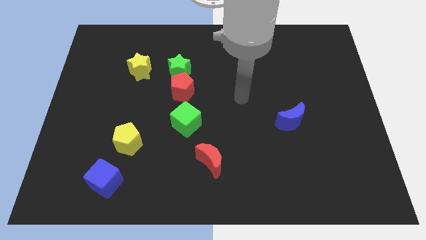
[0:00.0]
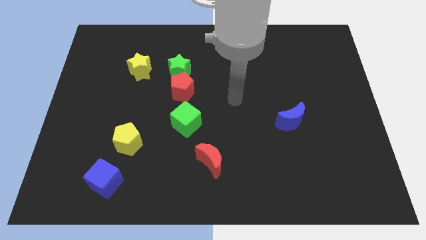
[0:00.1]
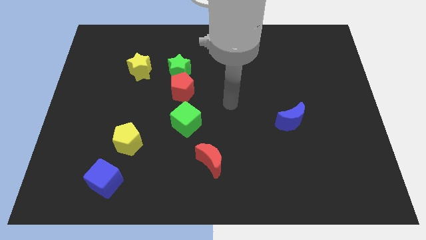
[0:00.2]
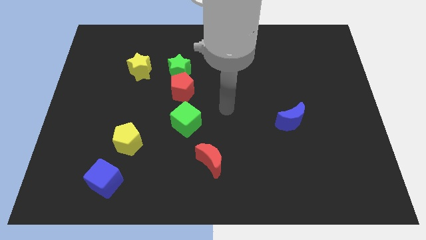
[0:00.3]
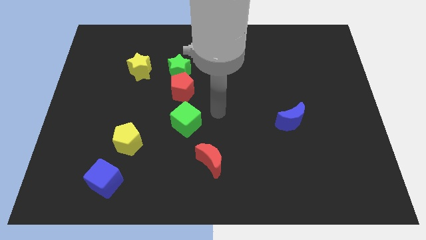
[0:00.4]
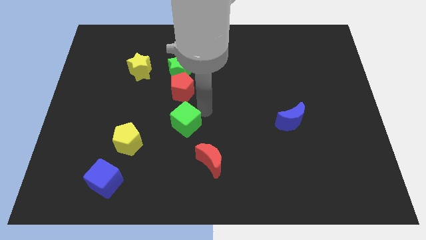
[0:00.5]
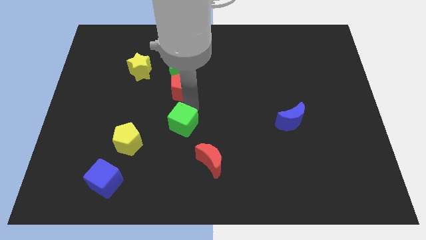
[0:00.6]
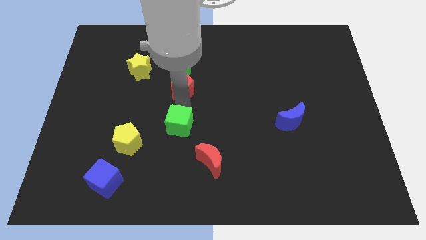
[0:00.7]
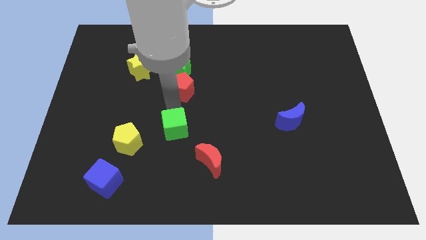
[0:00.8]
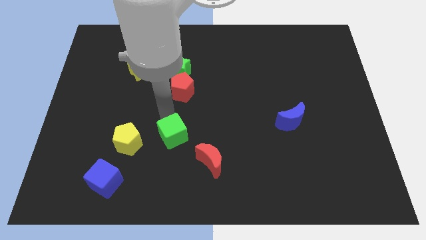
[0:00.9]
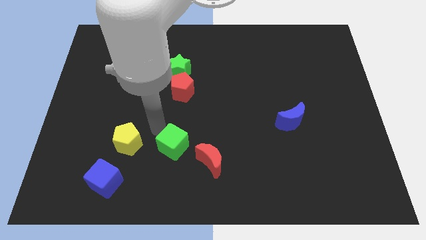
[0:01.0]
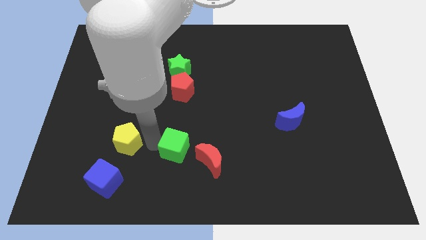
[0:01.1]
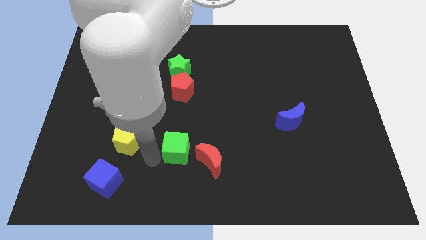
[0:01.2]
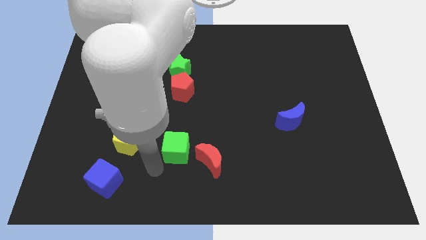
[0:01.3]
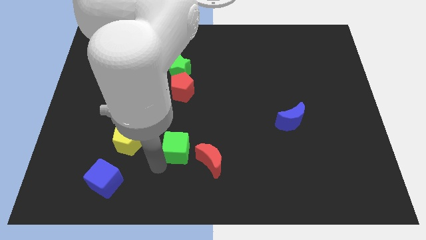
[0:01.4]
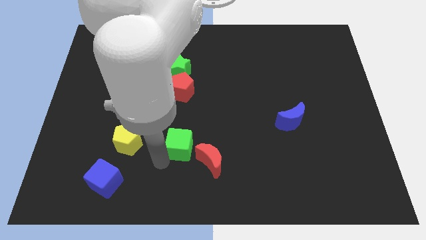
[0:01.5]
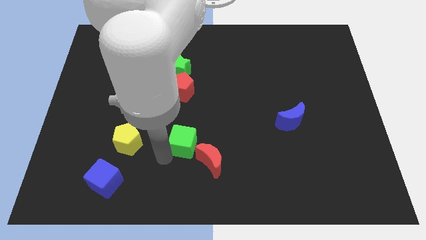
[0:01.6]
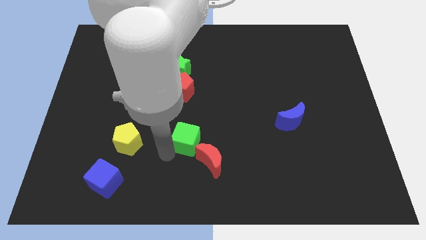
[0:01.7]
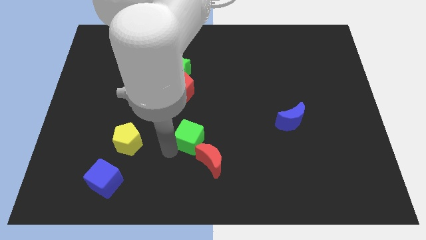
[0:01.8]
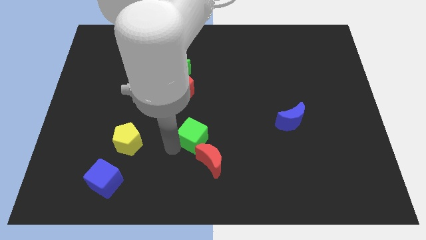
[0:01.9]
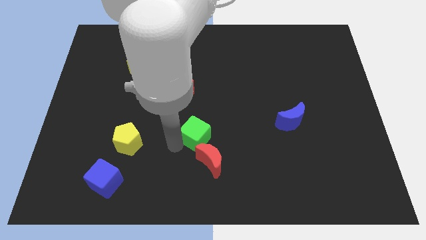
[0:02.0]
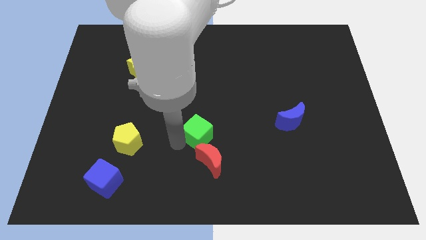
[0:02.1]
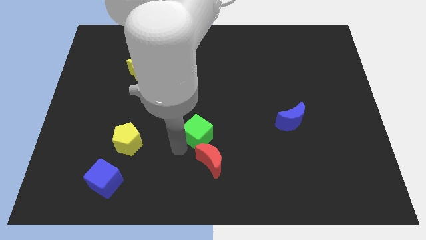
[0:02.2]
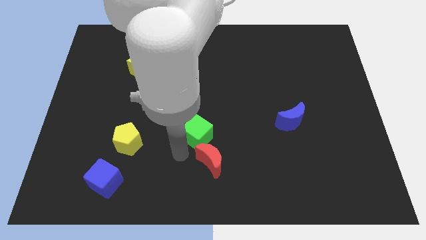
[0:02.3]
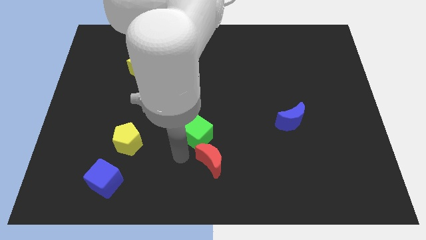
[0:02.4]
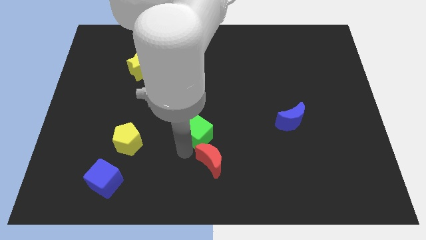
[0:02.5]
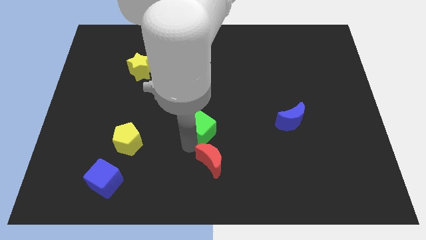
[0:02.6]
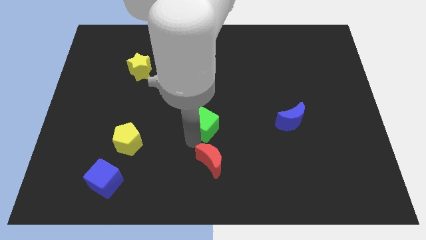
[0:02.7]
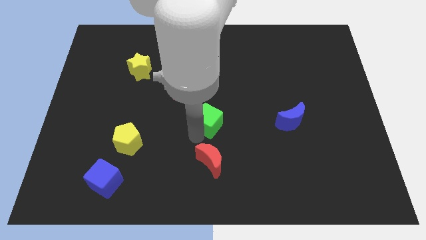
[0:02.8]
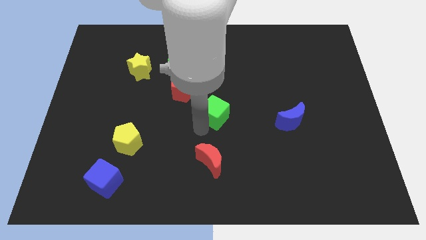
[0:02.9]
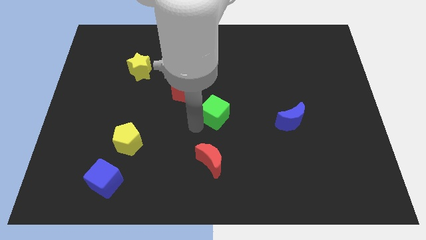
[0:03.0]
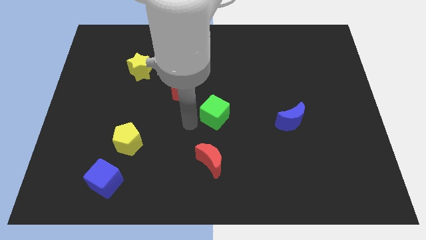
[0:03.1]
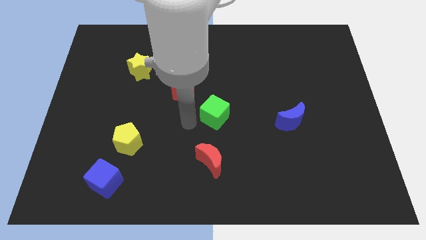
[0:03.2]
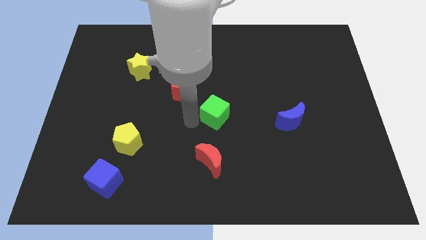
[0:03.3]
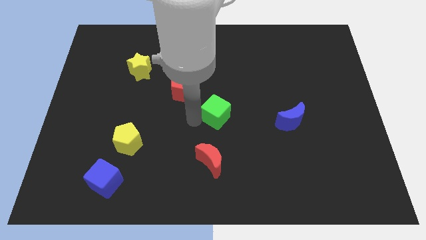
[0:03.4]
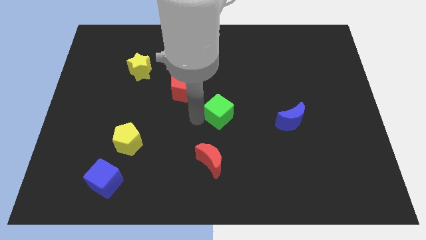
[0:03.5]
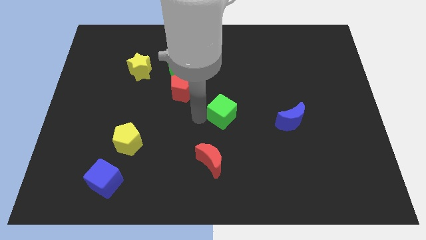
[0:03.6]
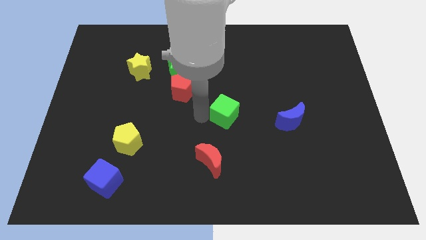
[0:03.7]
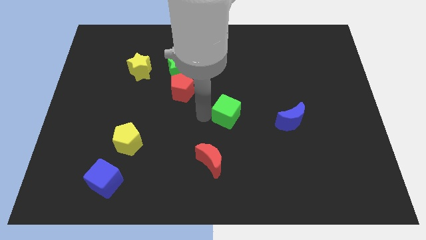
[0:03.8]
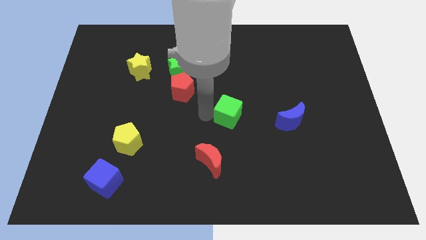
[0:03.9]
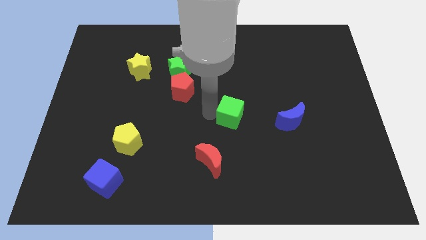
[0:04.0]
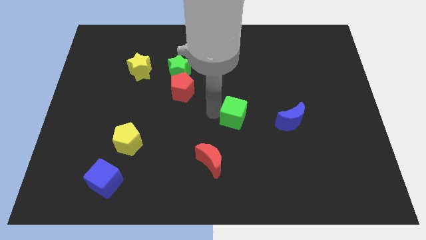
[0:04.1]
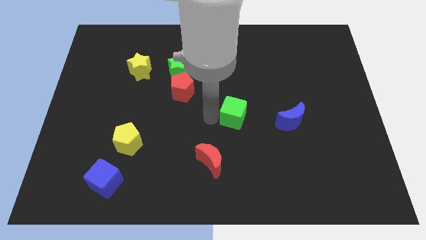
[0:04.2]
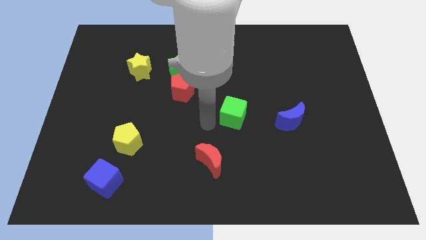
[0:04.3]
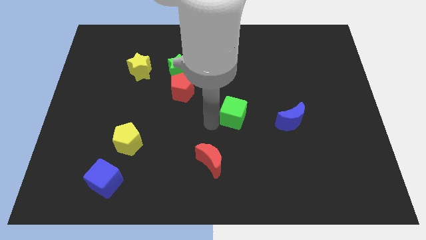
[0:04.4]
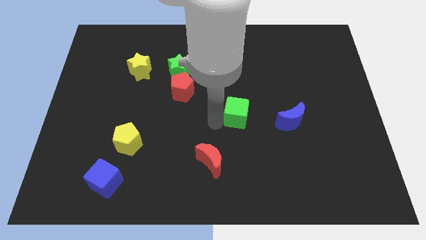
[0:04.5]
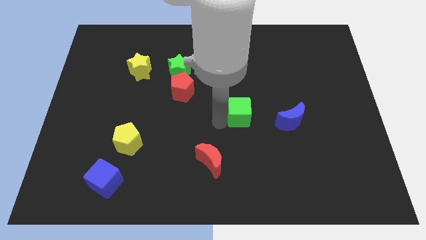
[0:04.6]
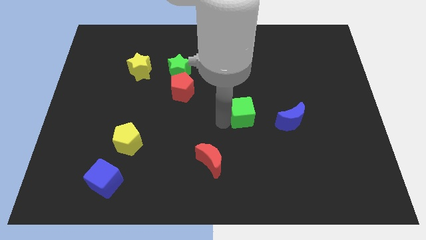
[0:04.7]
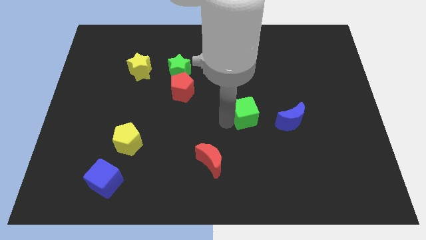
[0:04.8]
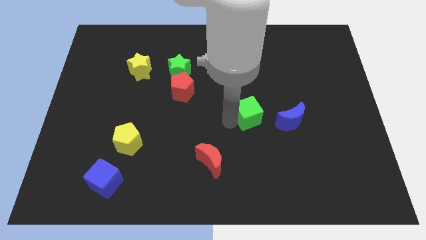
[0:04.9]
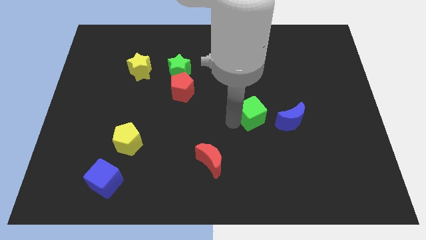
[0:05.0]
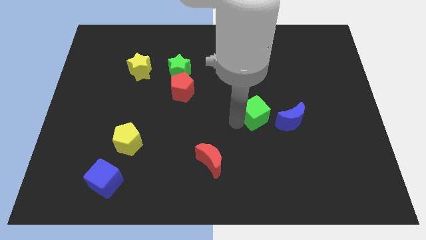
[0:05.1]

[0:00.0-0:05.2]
move the green cube to the top left side of the blue moon

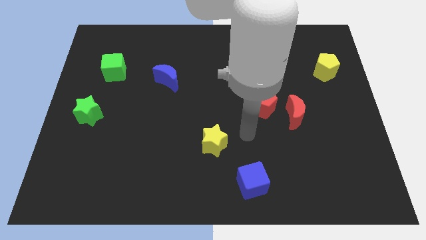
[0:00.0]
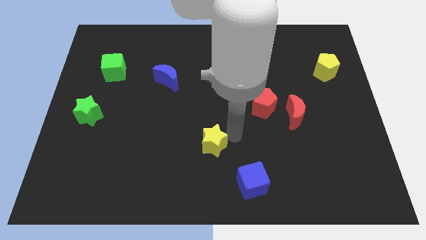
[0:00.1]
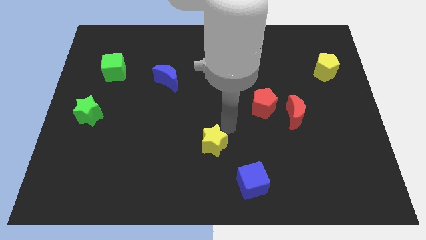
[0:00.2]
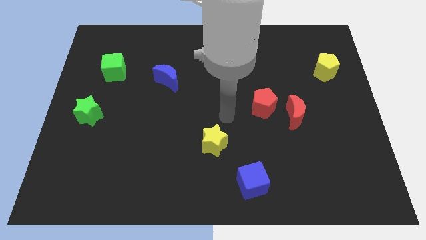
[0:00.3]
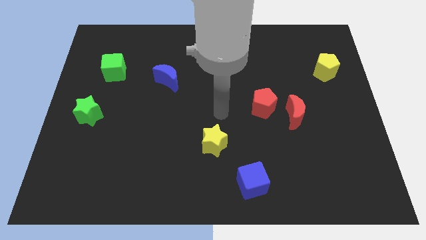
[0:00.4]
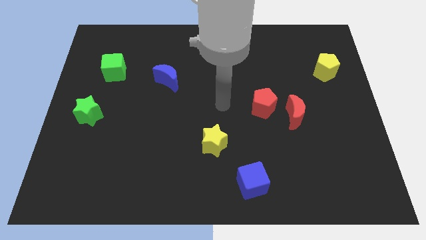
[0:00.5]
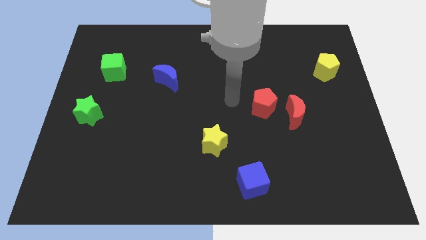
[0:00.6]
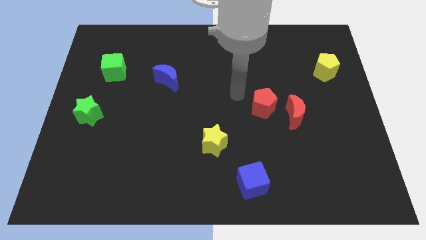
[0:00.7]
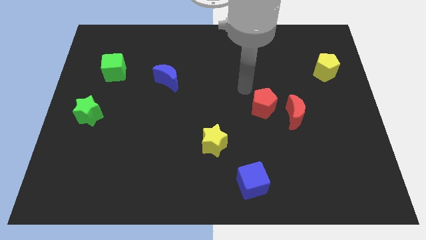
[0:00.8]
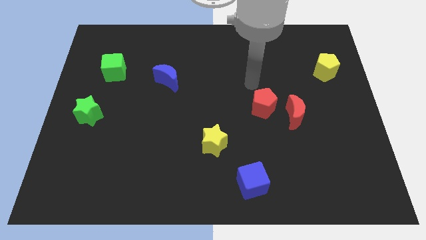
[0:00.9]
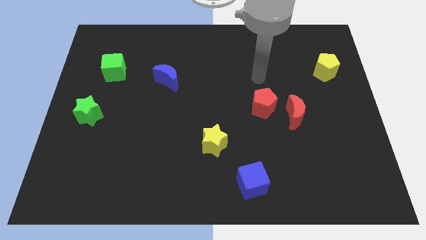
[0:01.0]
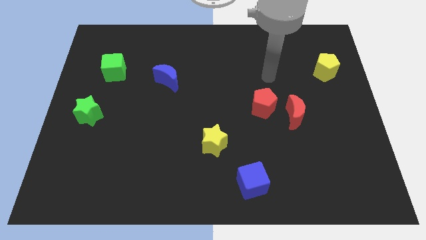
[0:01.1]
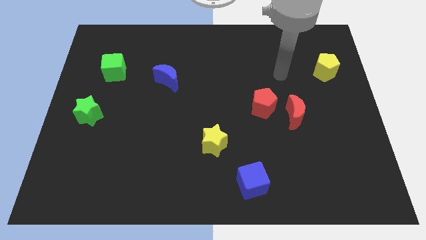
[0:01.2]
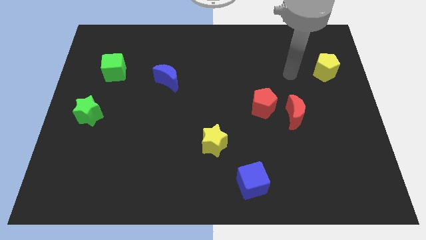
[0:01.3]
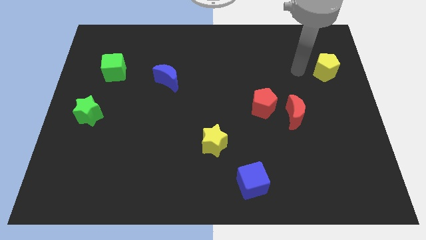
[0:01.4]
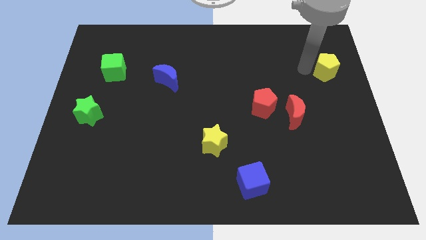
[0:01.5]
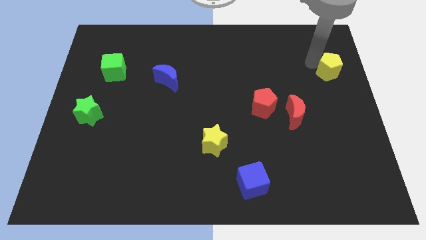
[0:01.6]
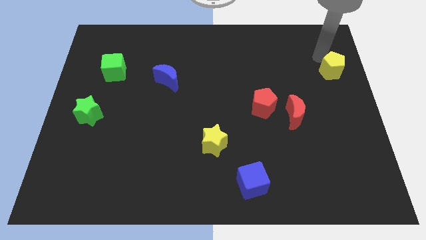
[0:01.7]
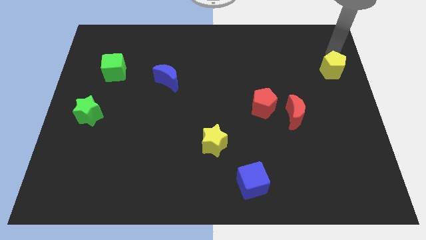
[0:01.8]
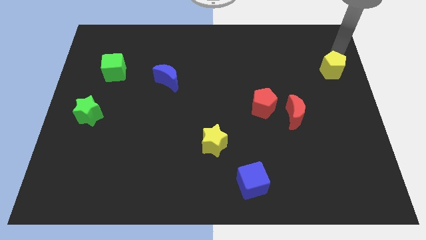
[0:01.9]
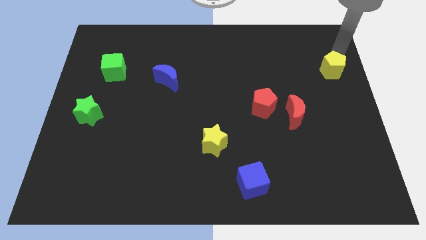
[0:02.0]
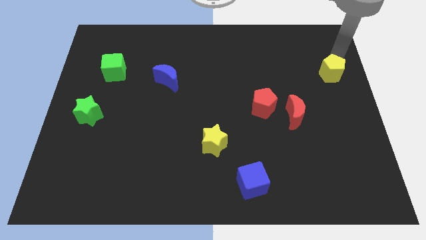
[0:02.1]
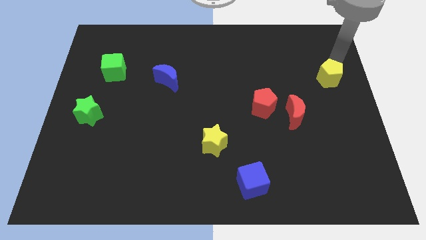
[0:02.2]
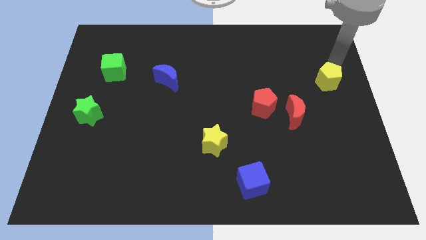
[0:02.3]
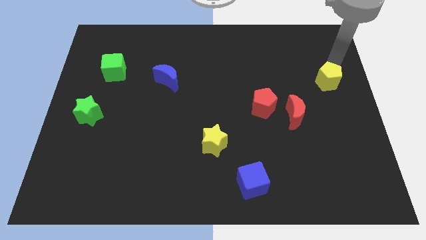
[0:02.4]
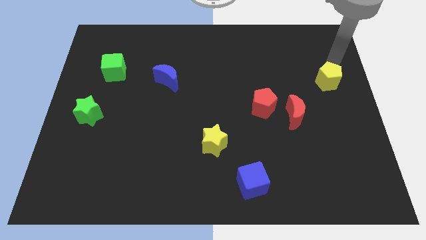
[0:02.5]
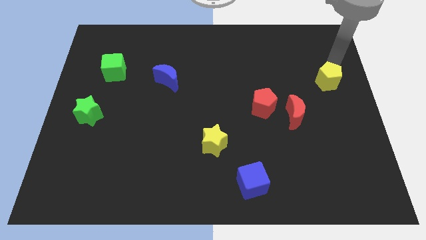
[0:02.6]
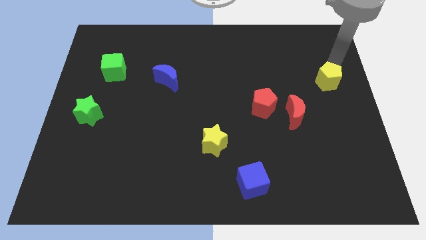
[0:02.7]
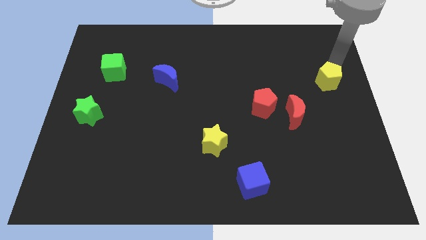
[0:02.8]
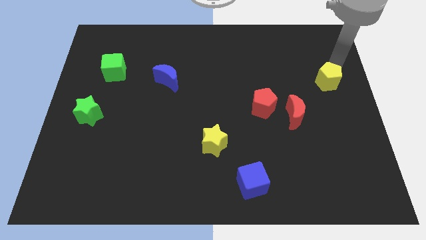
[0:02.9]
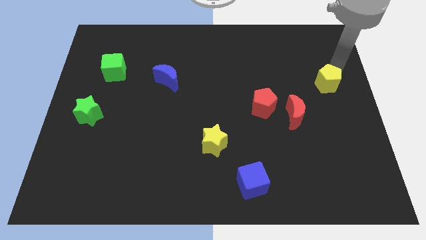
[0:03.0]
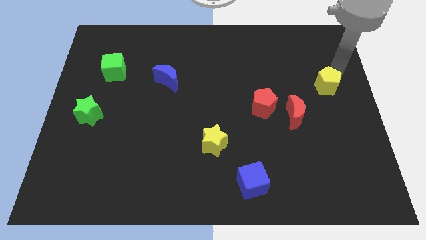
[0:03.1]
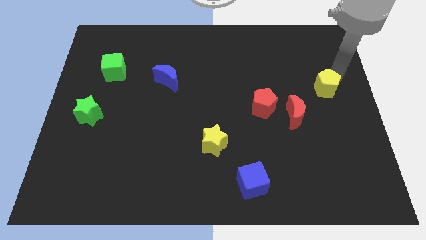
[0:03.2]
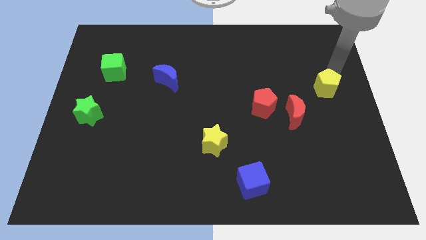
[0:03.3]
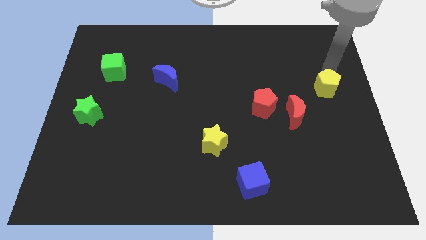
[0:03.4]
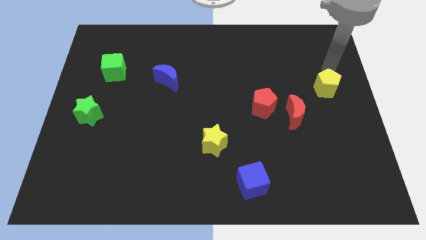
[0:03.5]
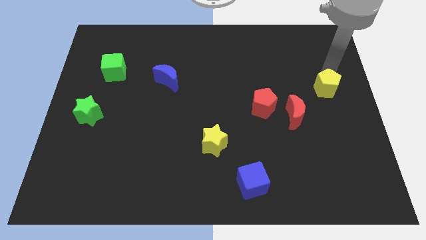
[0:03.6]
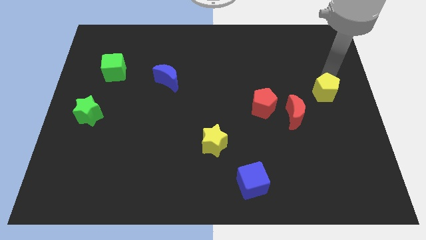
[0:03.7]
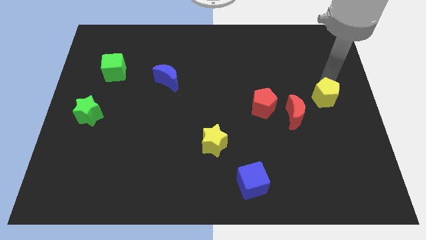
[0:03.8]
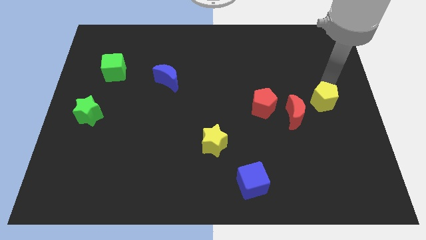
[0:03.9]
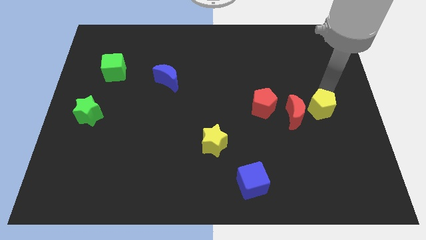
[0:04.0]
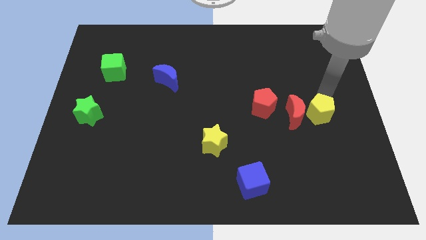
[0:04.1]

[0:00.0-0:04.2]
slide the yellow pentagon to the bottom right of the red moon
